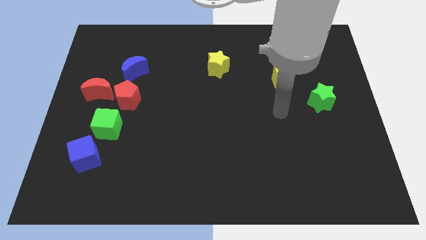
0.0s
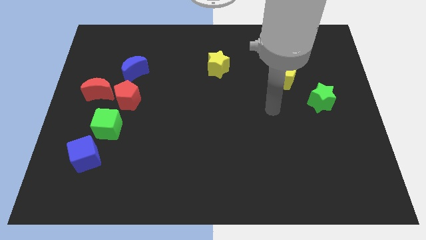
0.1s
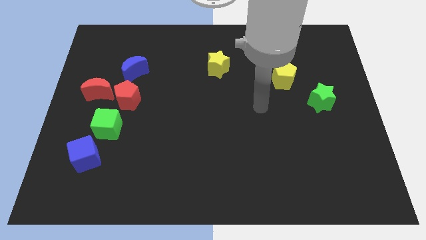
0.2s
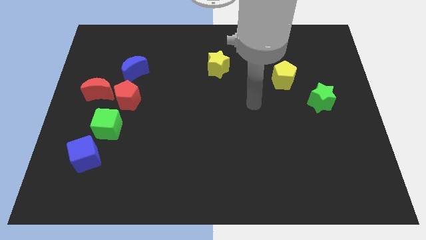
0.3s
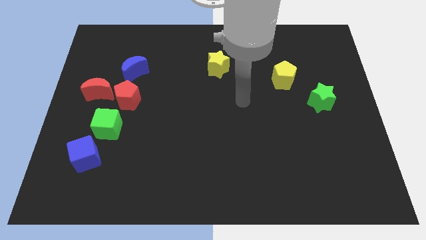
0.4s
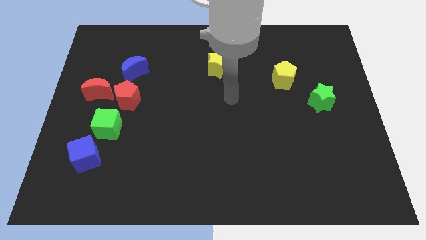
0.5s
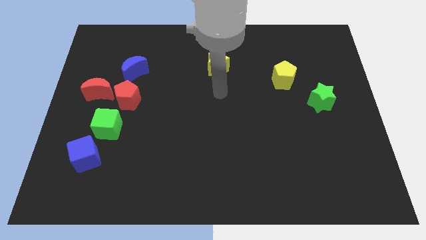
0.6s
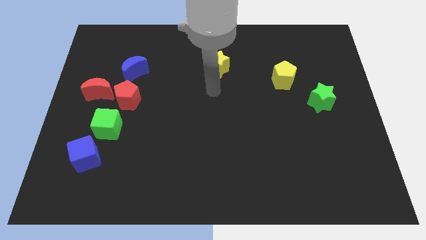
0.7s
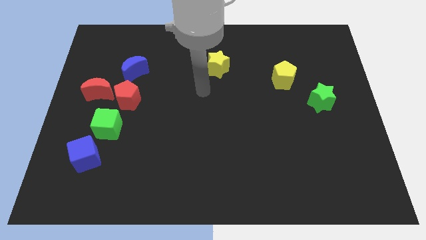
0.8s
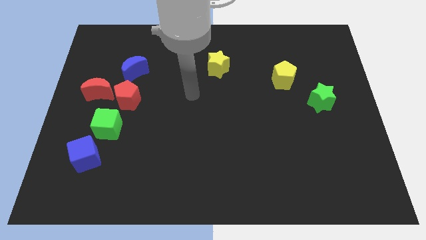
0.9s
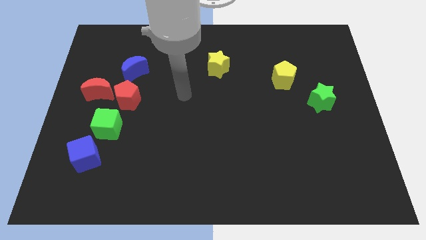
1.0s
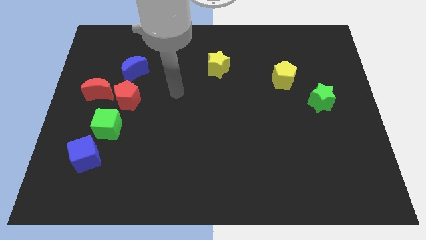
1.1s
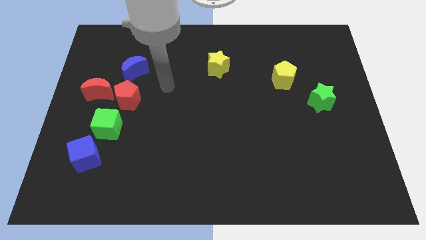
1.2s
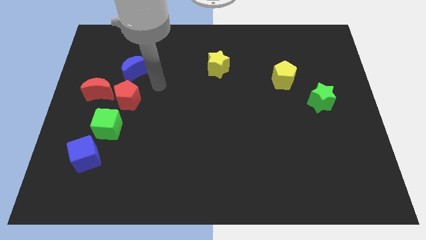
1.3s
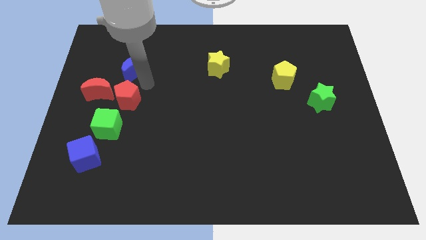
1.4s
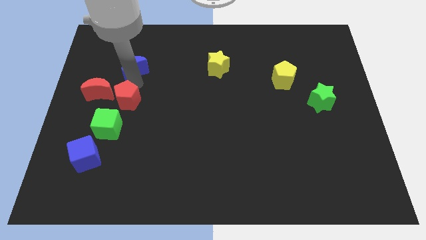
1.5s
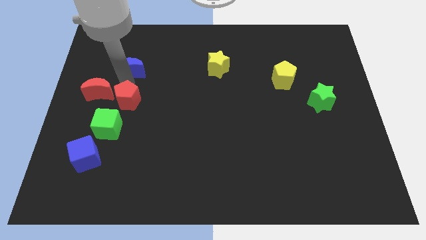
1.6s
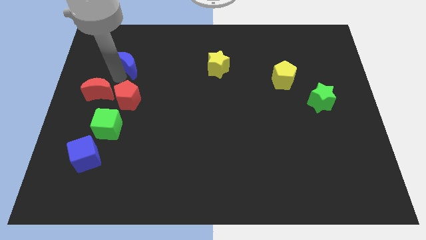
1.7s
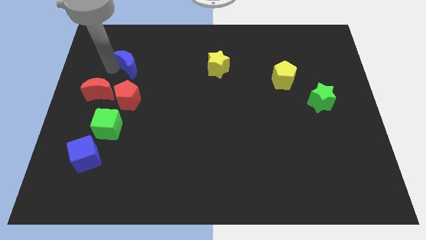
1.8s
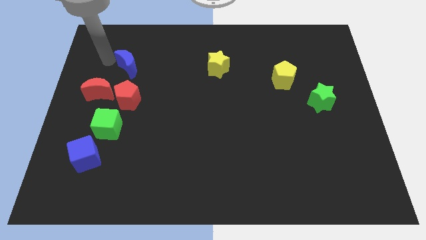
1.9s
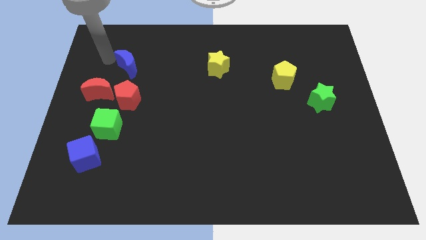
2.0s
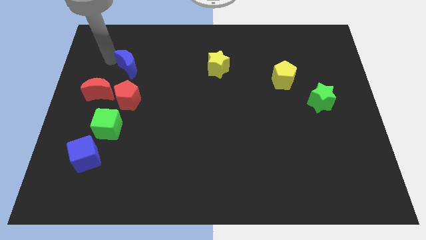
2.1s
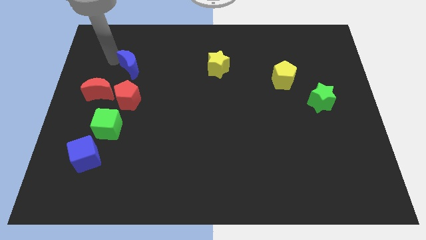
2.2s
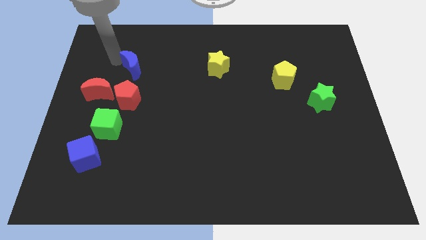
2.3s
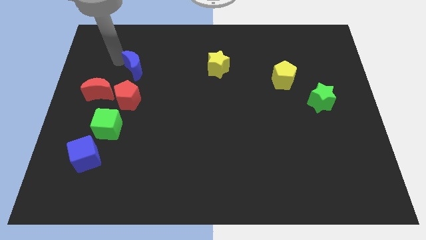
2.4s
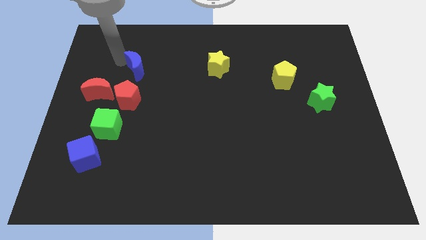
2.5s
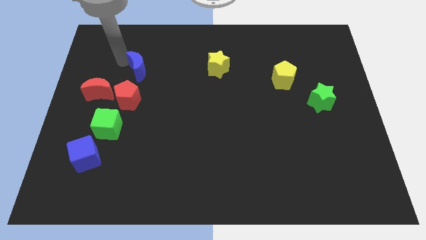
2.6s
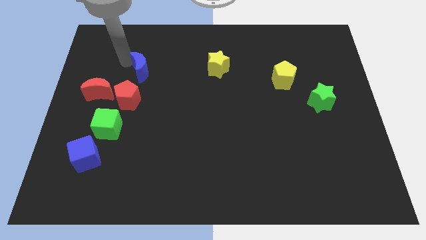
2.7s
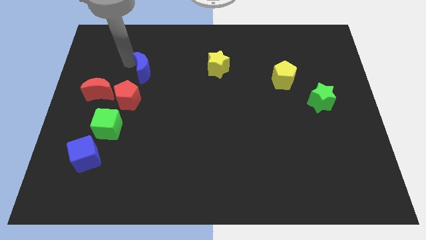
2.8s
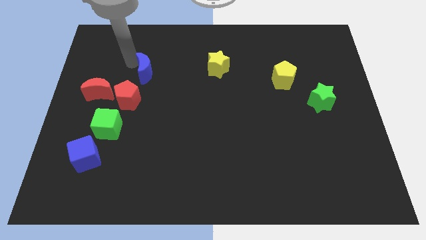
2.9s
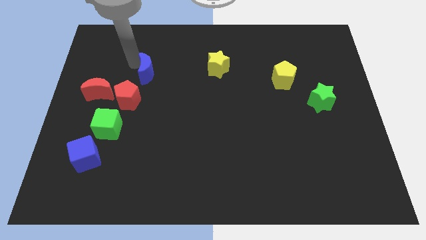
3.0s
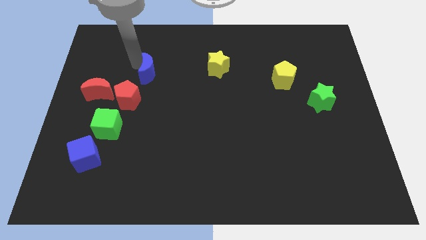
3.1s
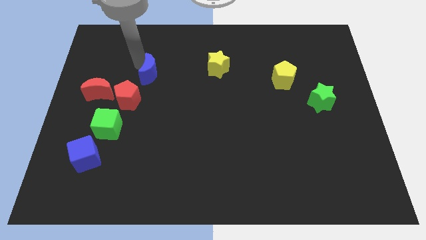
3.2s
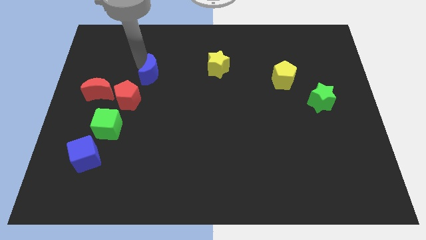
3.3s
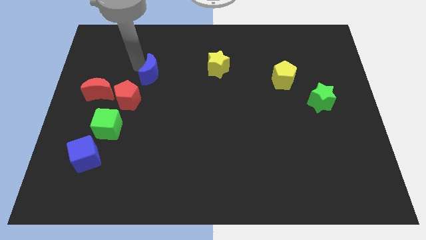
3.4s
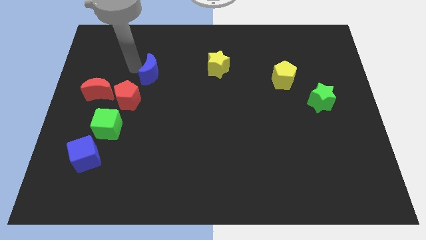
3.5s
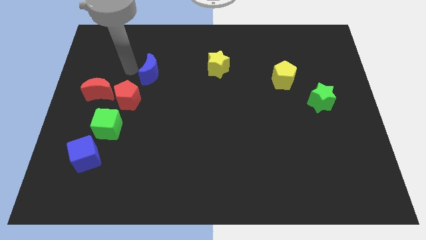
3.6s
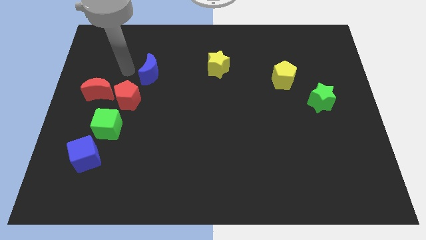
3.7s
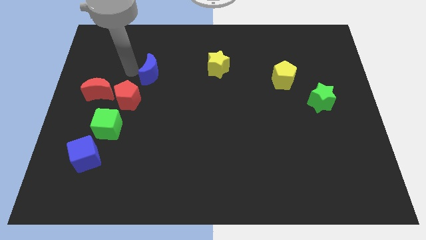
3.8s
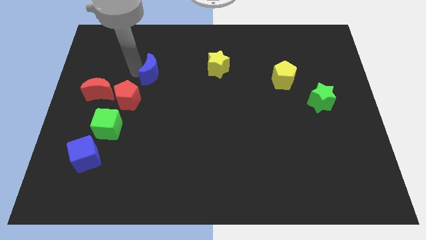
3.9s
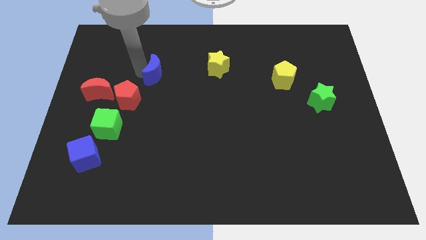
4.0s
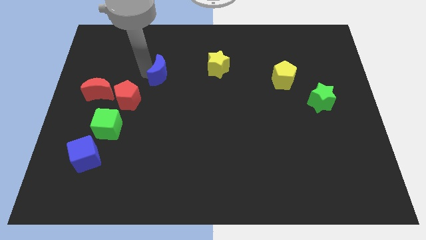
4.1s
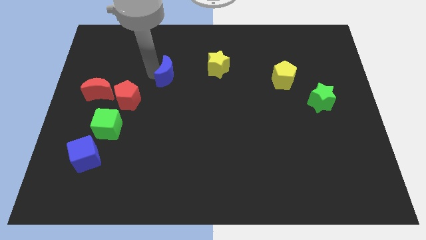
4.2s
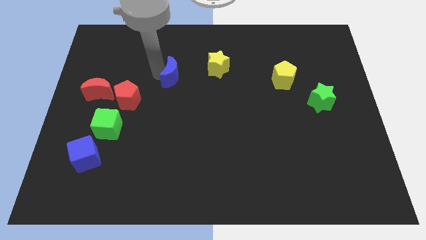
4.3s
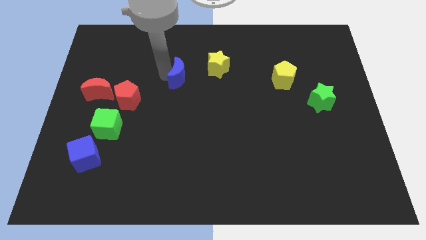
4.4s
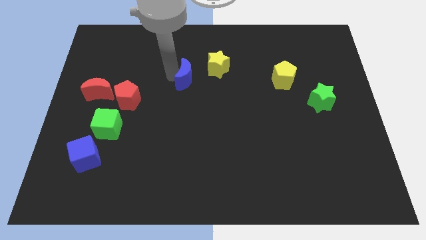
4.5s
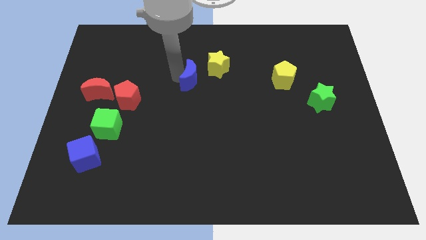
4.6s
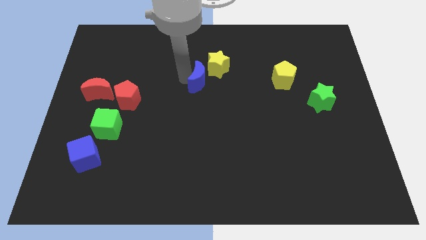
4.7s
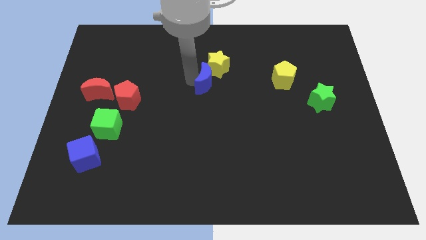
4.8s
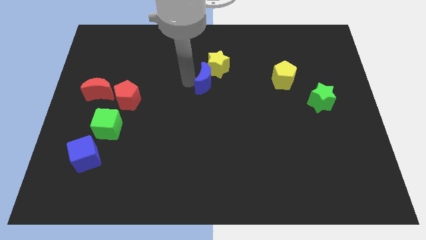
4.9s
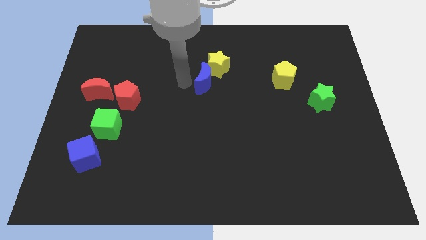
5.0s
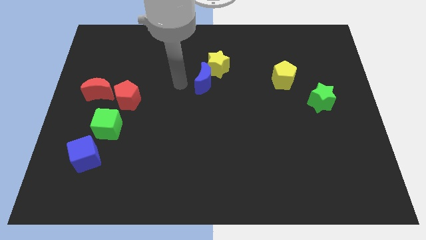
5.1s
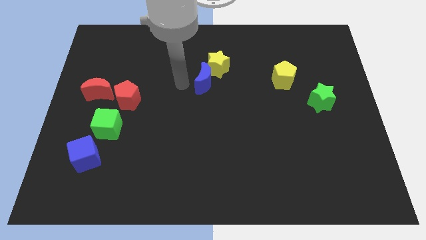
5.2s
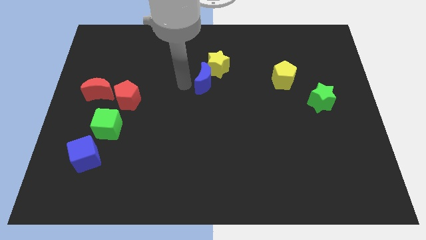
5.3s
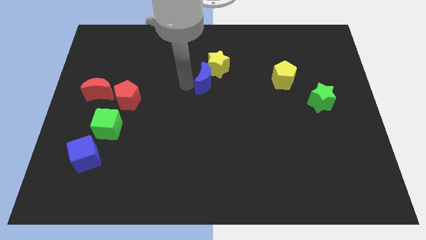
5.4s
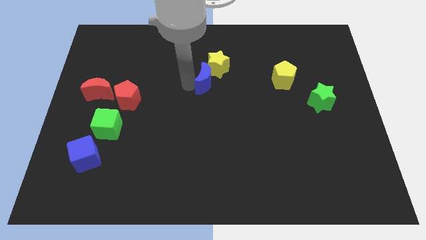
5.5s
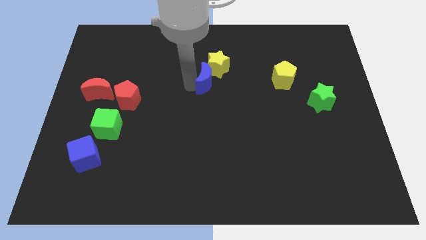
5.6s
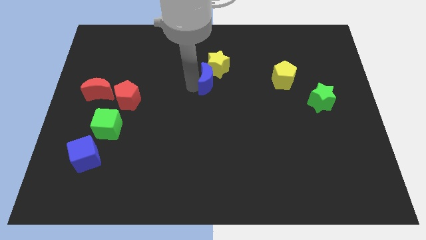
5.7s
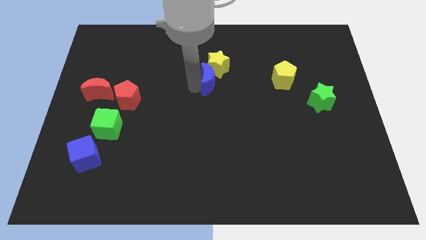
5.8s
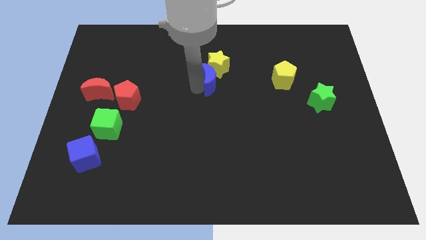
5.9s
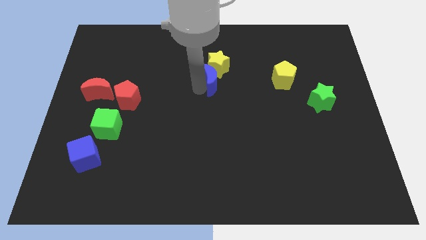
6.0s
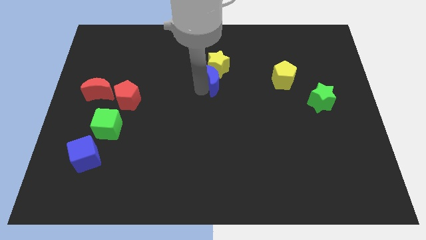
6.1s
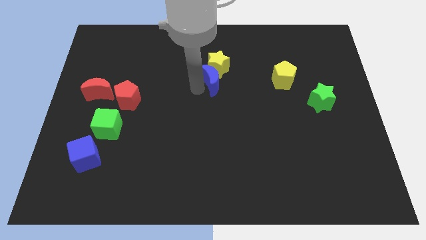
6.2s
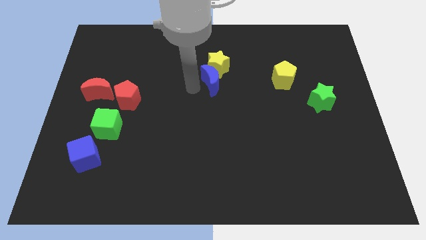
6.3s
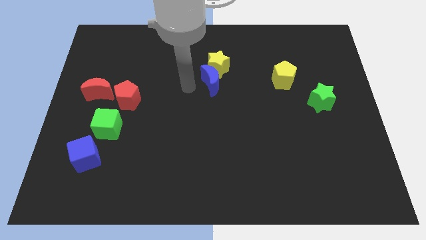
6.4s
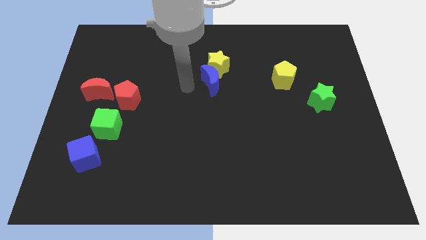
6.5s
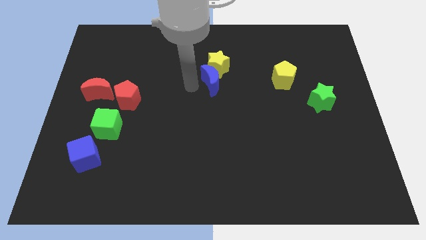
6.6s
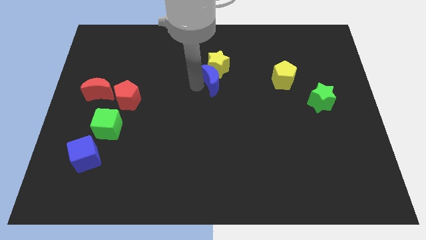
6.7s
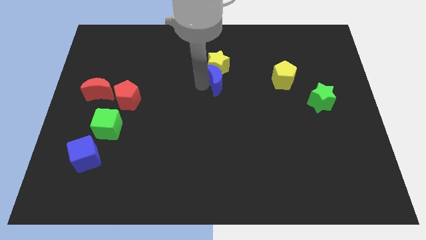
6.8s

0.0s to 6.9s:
push the blue moon to the right

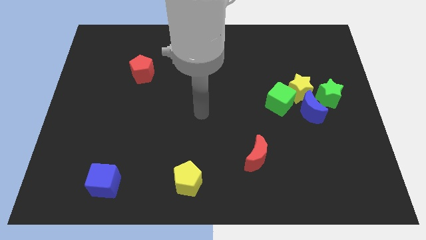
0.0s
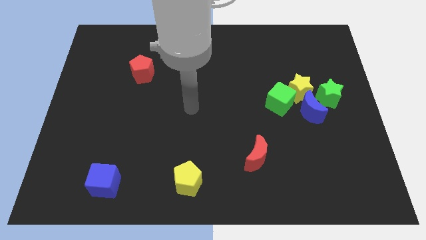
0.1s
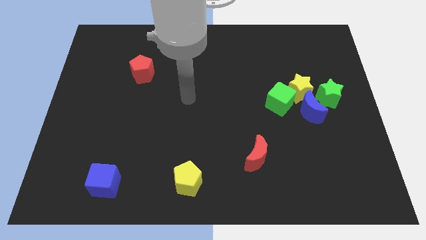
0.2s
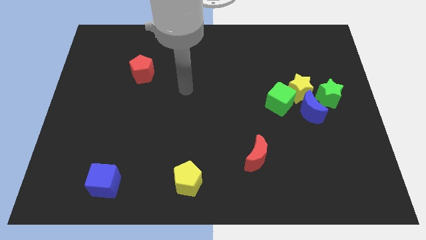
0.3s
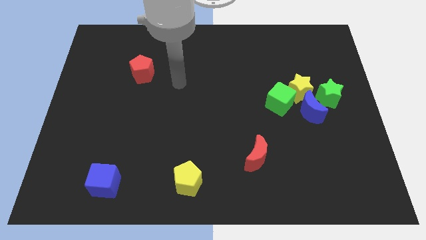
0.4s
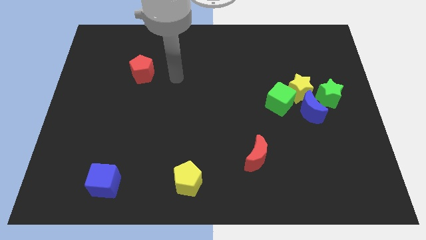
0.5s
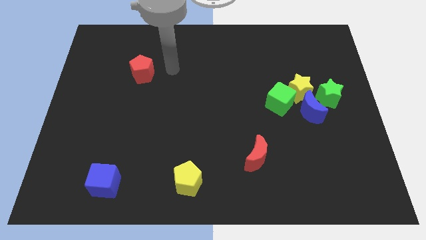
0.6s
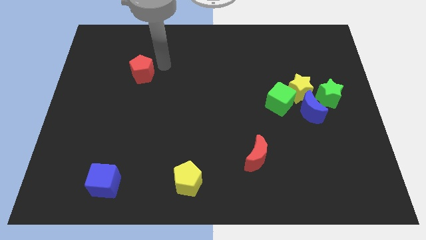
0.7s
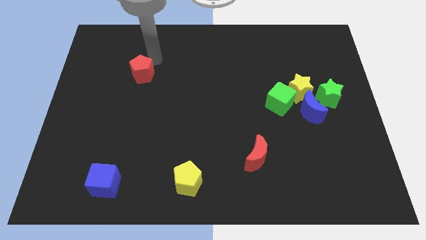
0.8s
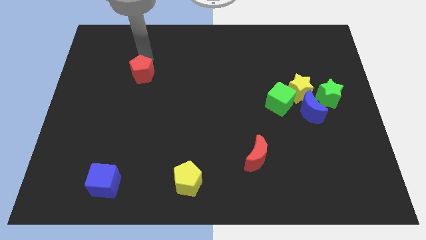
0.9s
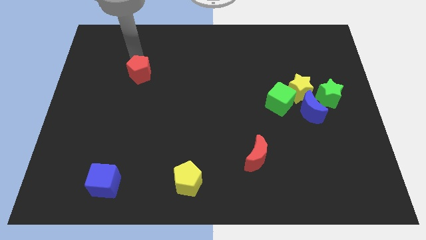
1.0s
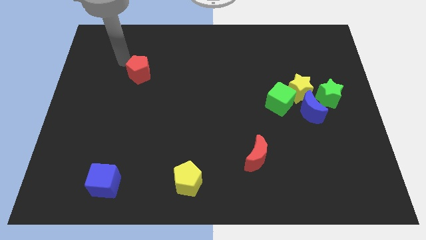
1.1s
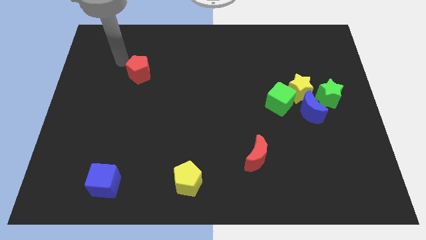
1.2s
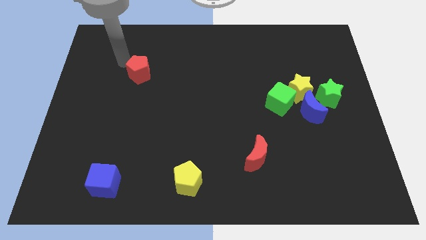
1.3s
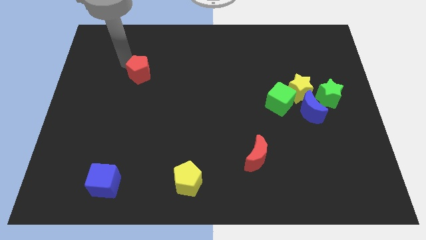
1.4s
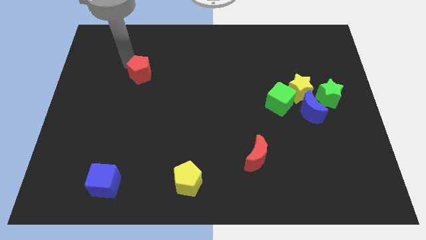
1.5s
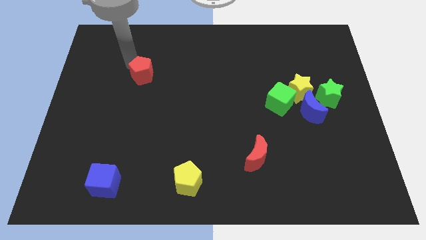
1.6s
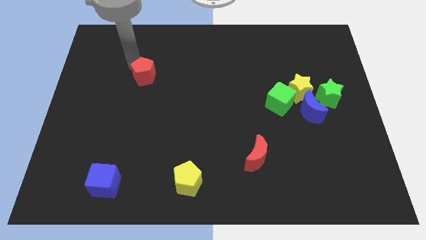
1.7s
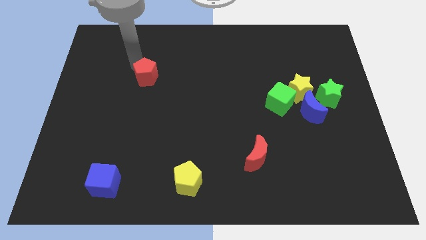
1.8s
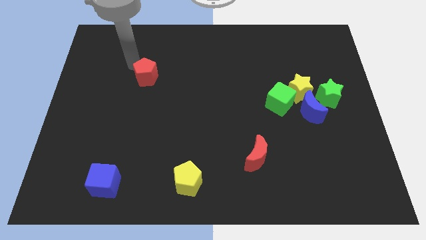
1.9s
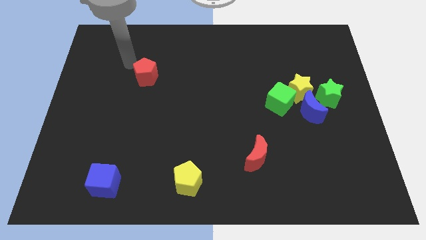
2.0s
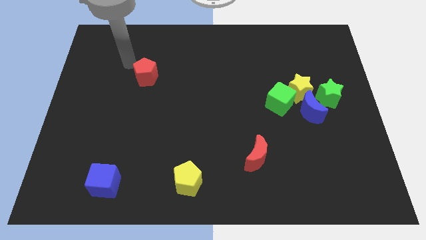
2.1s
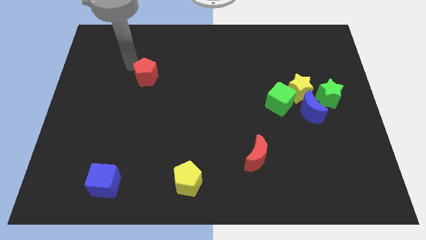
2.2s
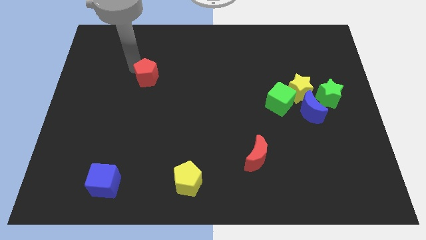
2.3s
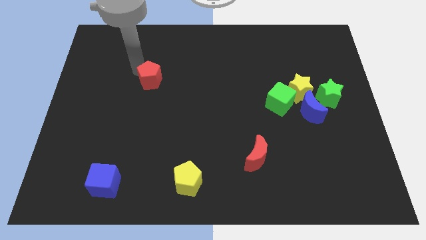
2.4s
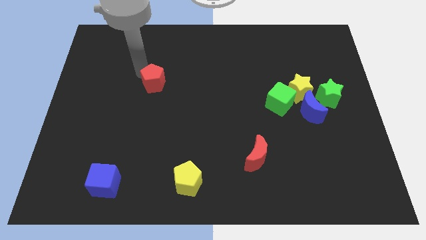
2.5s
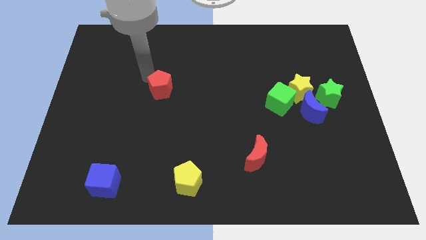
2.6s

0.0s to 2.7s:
push the red pentagon a little bit down and right diagonally
